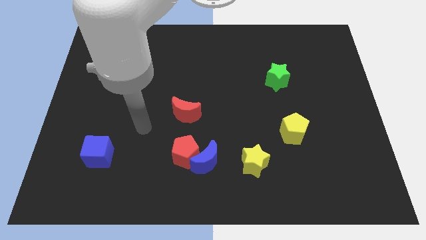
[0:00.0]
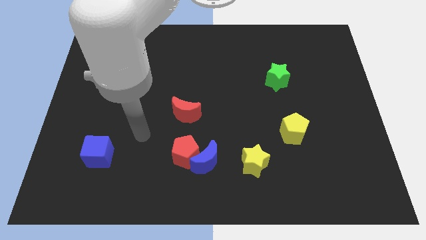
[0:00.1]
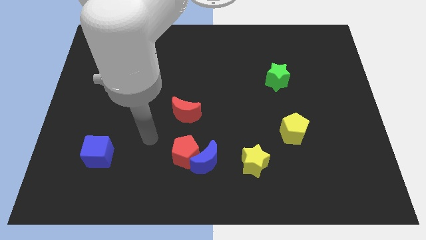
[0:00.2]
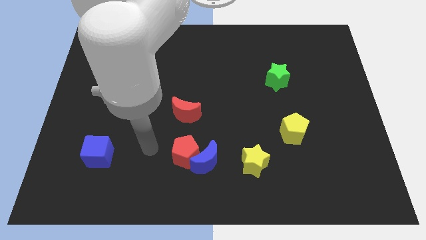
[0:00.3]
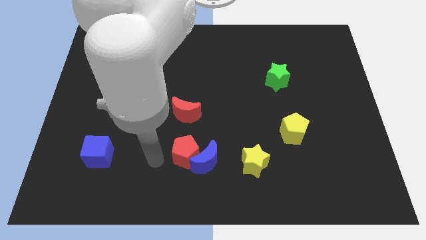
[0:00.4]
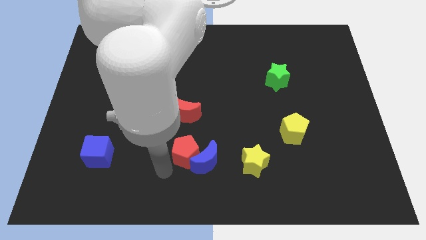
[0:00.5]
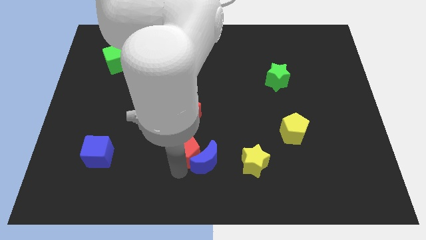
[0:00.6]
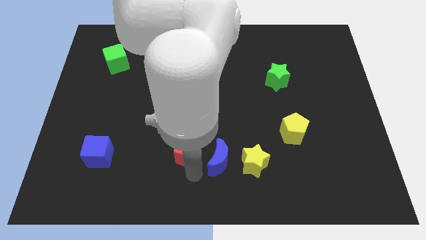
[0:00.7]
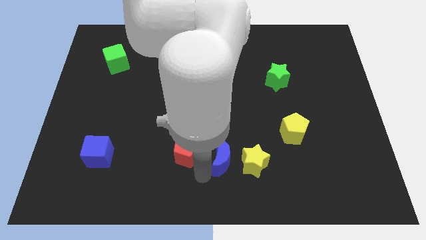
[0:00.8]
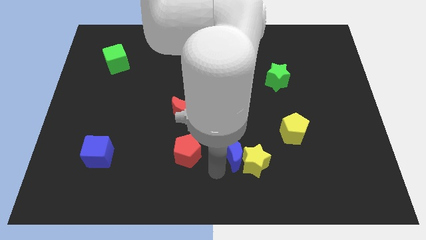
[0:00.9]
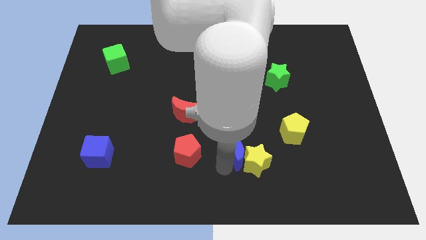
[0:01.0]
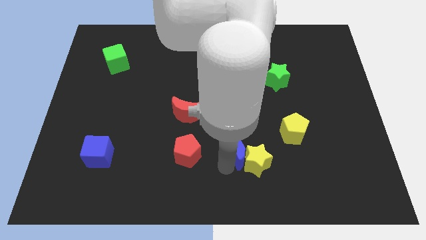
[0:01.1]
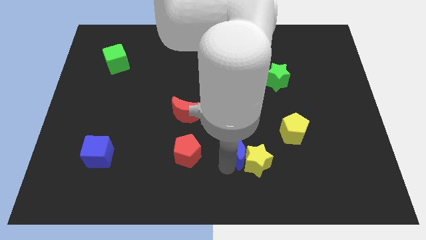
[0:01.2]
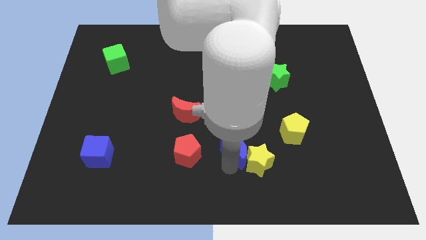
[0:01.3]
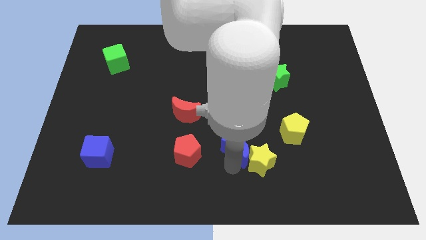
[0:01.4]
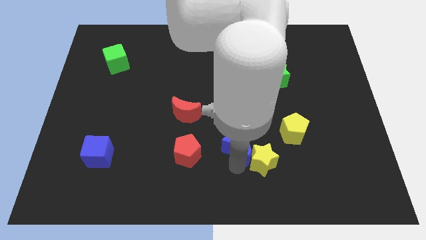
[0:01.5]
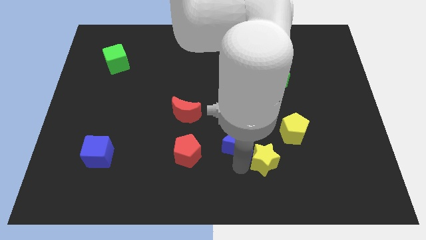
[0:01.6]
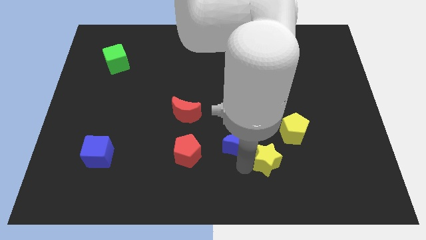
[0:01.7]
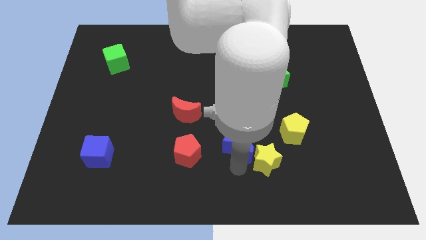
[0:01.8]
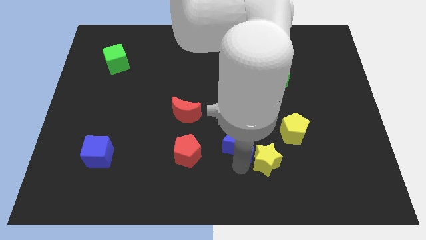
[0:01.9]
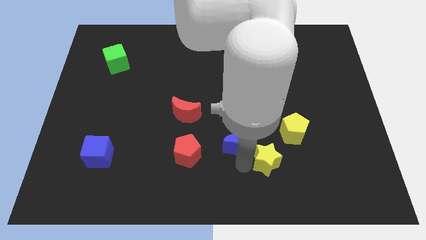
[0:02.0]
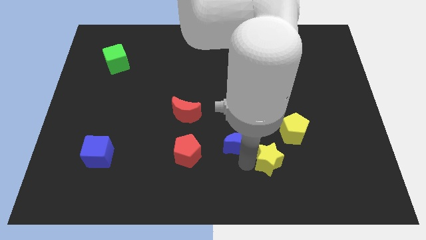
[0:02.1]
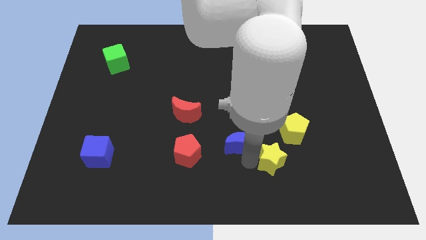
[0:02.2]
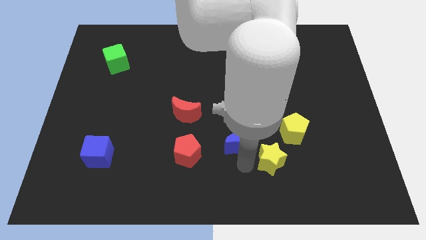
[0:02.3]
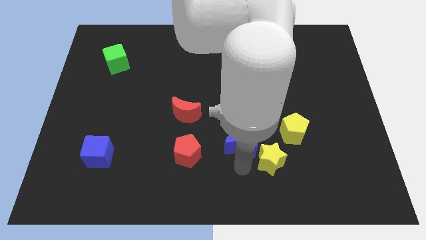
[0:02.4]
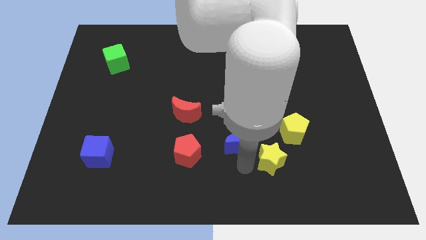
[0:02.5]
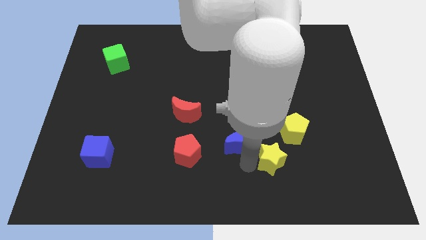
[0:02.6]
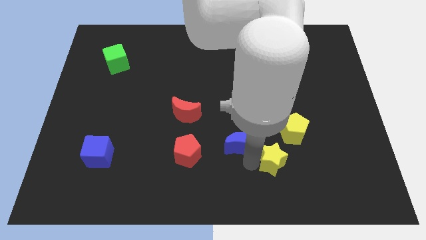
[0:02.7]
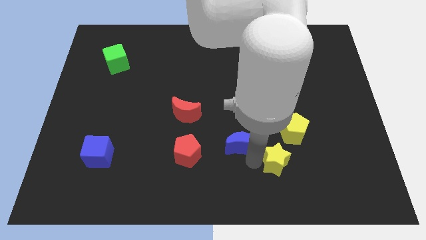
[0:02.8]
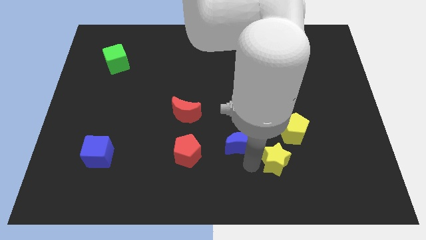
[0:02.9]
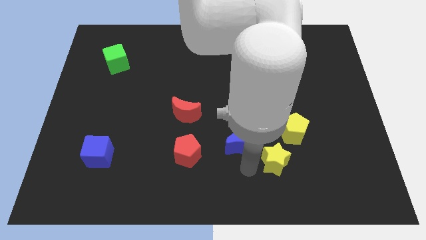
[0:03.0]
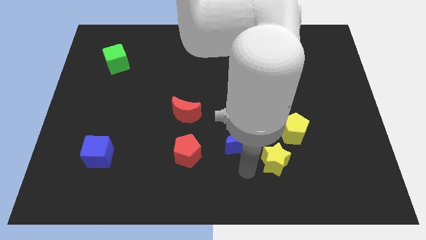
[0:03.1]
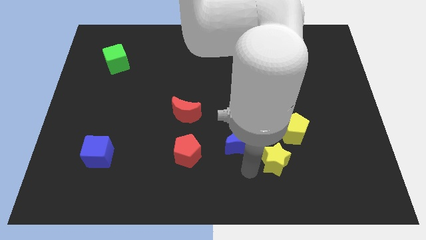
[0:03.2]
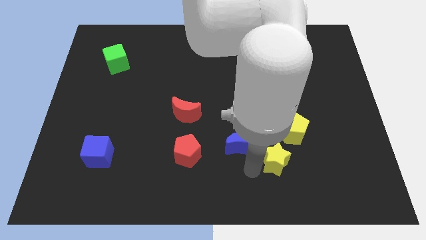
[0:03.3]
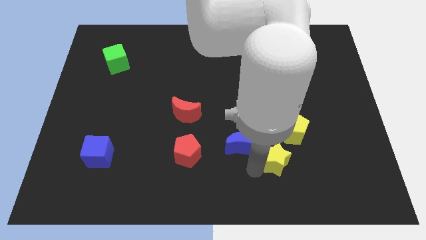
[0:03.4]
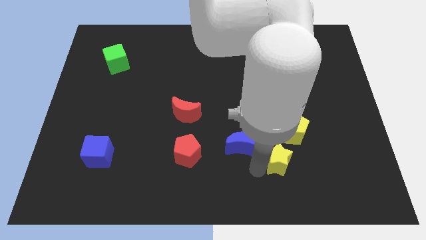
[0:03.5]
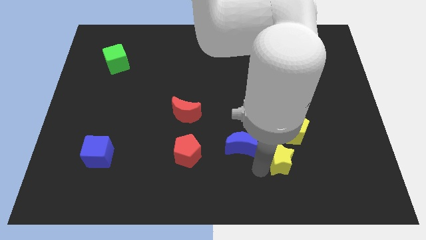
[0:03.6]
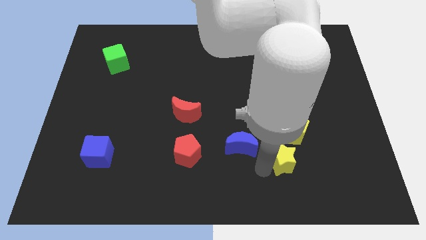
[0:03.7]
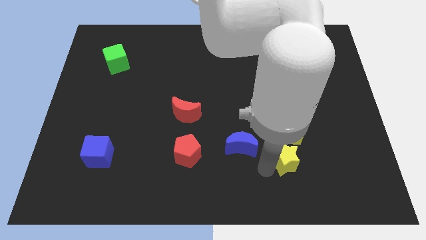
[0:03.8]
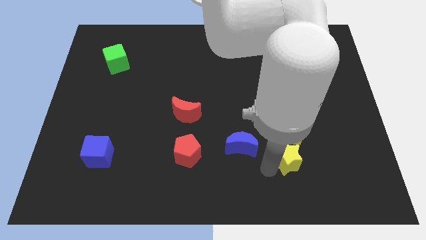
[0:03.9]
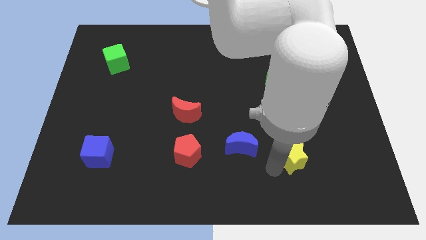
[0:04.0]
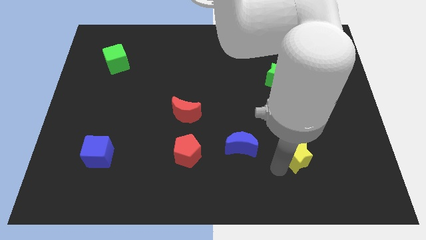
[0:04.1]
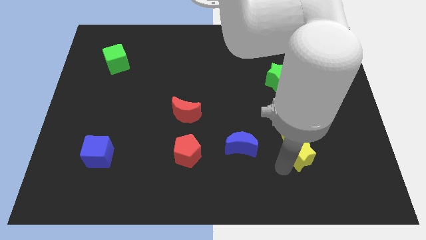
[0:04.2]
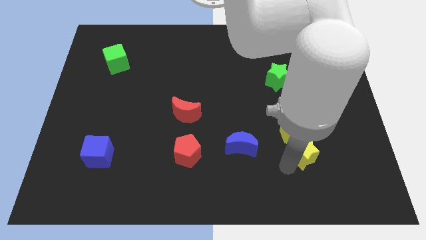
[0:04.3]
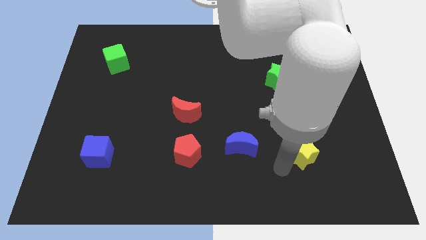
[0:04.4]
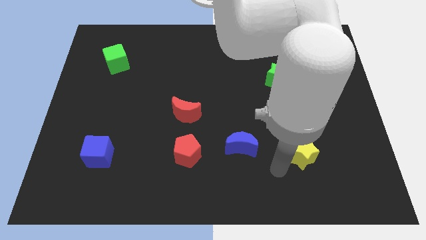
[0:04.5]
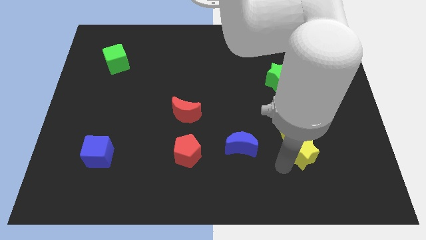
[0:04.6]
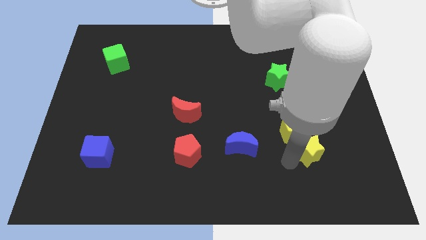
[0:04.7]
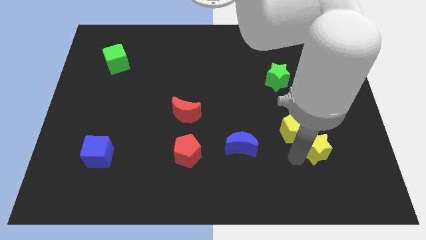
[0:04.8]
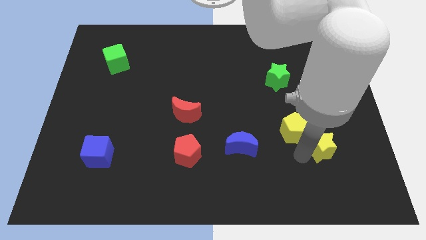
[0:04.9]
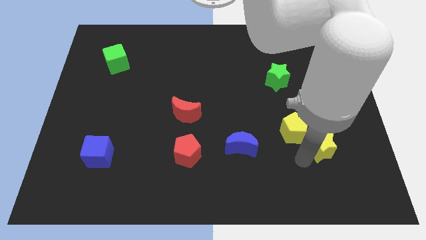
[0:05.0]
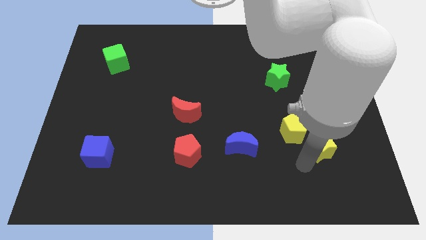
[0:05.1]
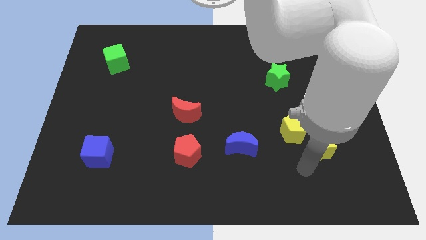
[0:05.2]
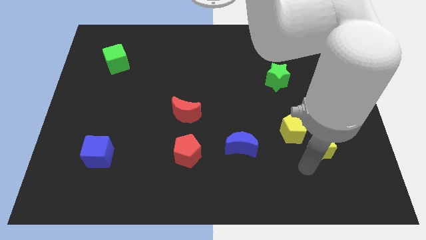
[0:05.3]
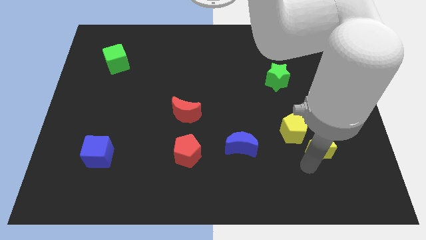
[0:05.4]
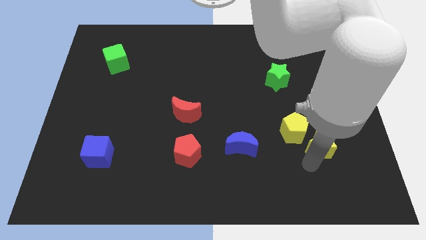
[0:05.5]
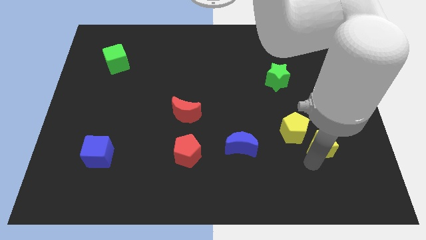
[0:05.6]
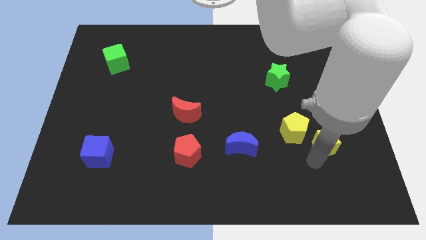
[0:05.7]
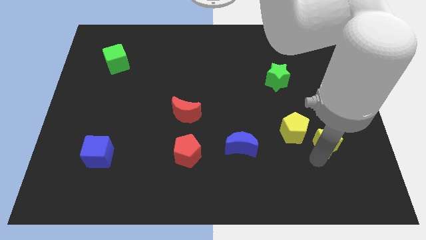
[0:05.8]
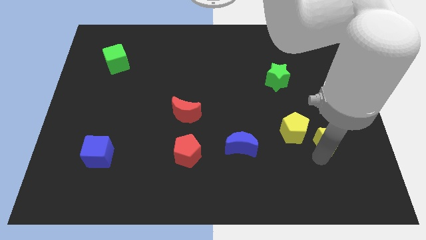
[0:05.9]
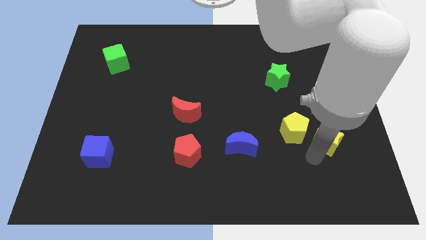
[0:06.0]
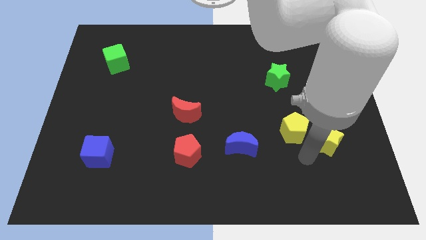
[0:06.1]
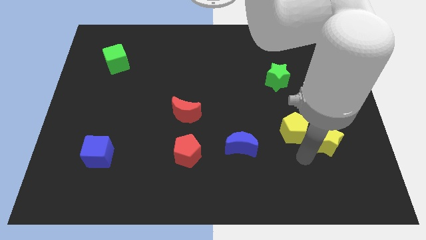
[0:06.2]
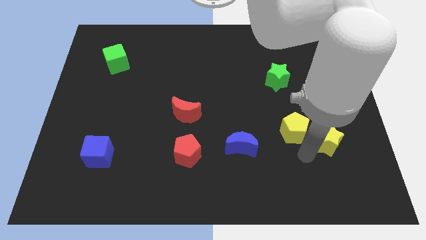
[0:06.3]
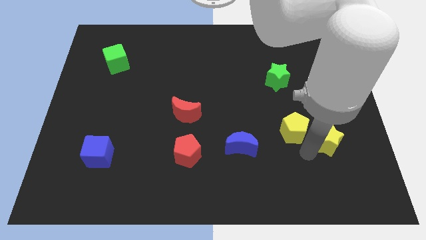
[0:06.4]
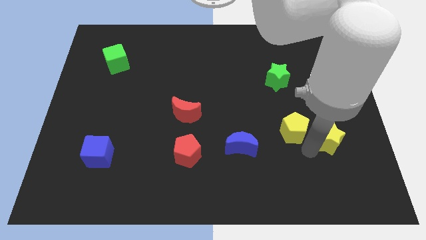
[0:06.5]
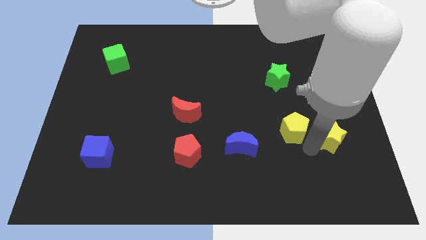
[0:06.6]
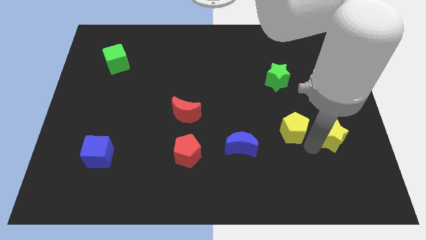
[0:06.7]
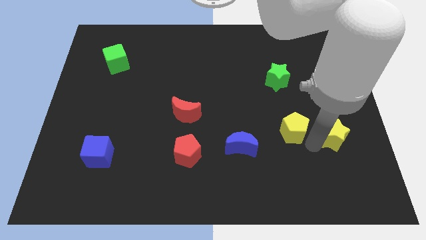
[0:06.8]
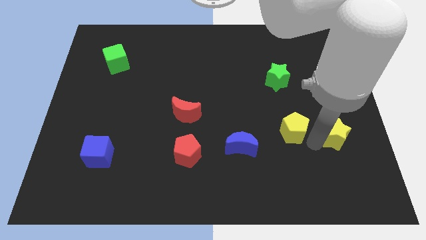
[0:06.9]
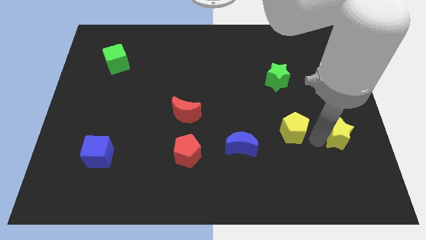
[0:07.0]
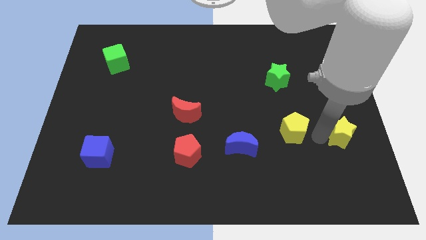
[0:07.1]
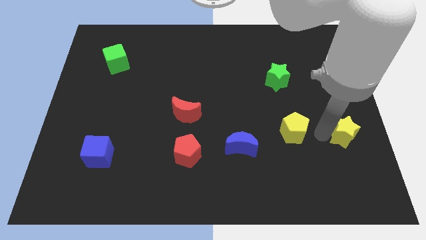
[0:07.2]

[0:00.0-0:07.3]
move the yellow star to the right side
